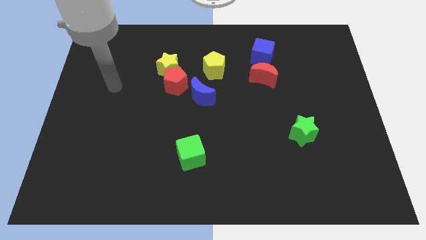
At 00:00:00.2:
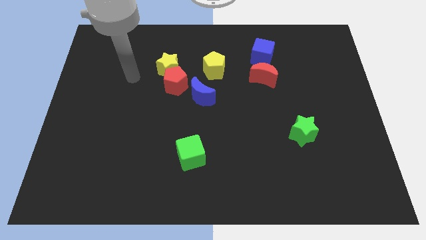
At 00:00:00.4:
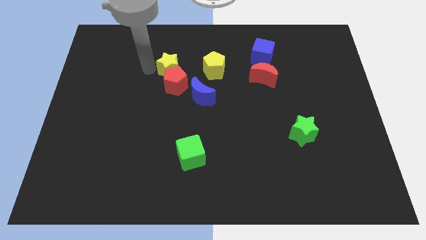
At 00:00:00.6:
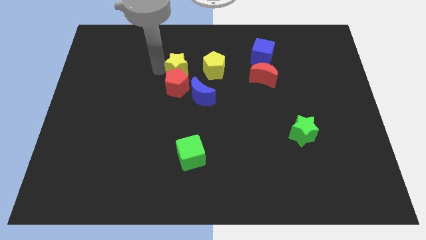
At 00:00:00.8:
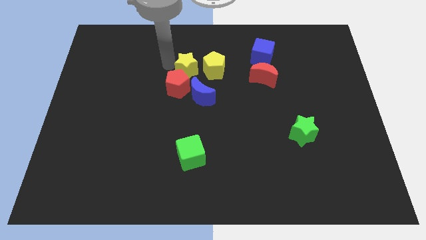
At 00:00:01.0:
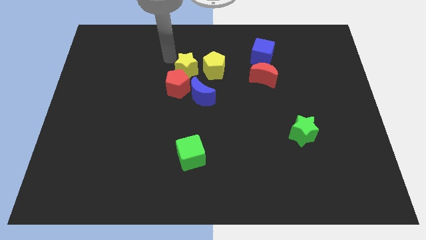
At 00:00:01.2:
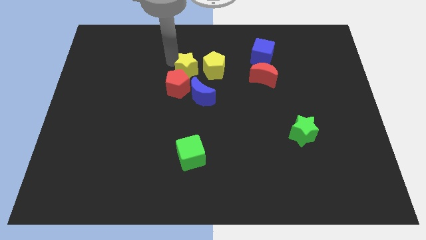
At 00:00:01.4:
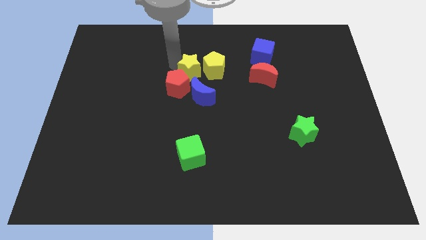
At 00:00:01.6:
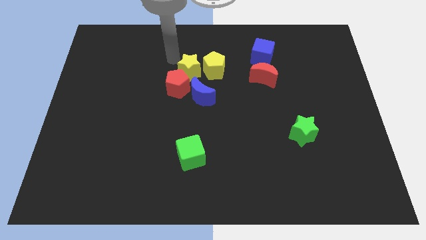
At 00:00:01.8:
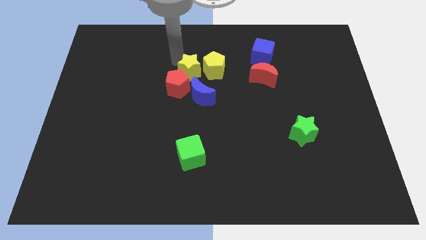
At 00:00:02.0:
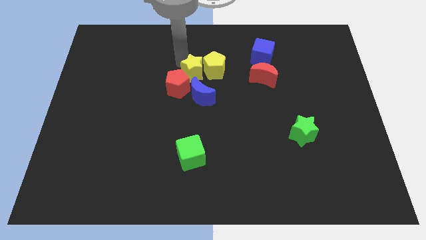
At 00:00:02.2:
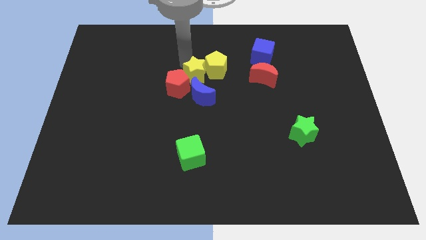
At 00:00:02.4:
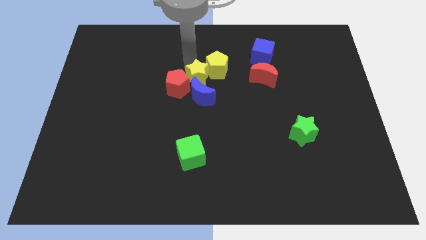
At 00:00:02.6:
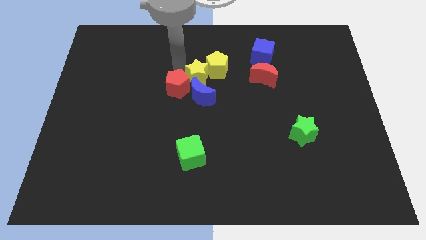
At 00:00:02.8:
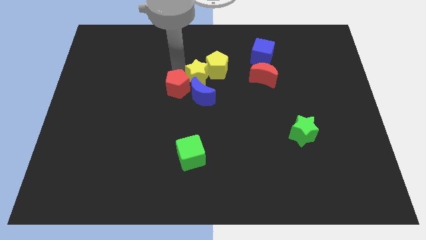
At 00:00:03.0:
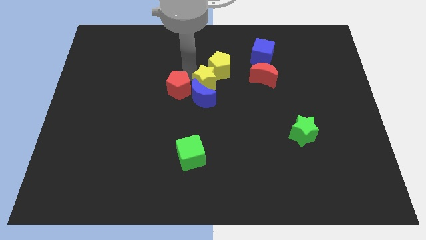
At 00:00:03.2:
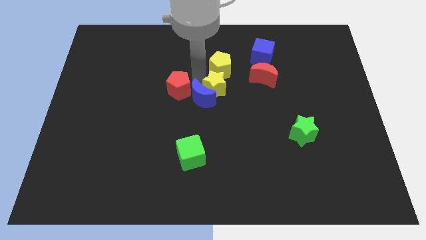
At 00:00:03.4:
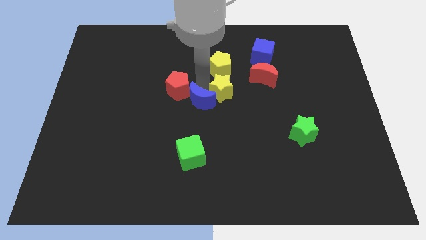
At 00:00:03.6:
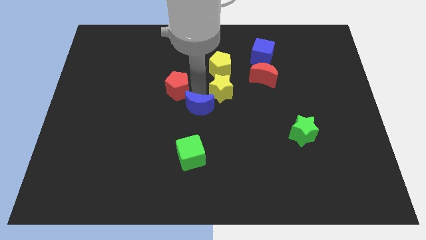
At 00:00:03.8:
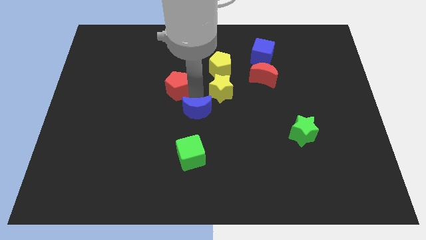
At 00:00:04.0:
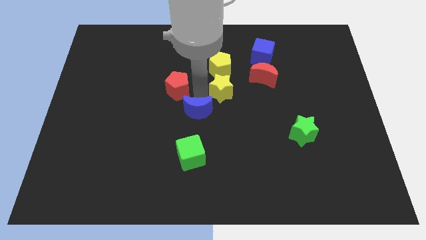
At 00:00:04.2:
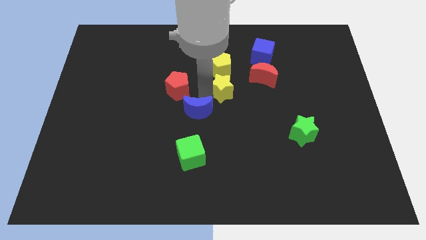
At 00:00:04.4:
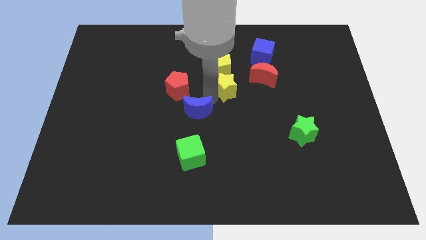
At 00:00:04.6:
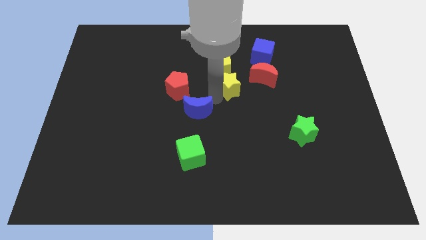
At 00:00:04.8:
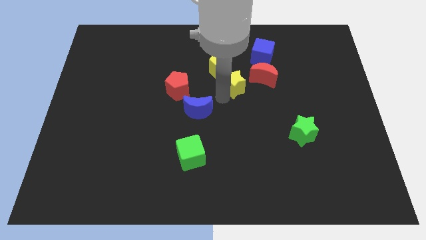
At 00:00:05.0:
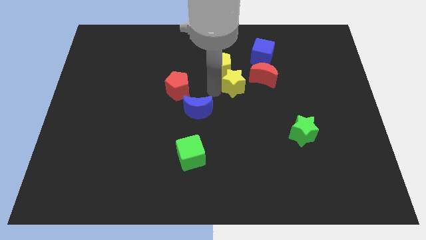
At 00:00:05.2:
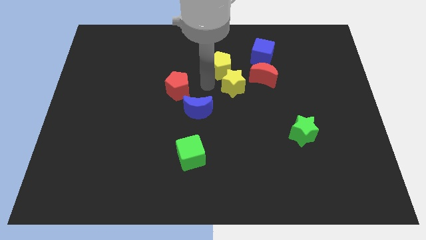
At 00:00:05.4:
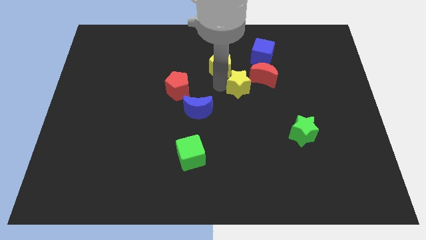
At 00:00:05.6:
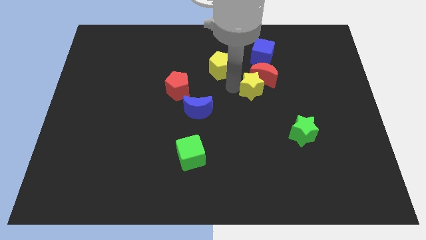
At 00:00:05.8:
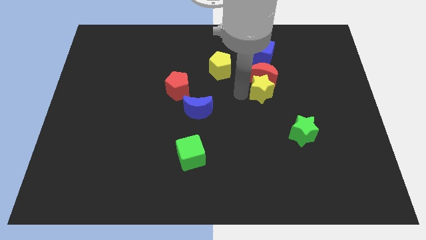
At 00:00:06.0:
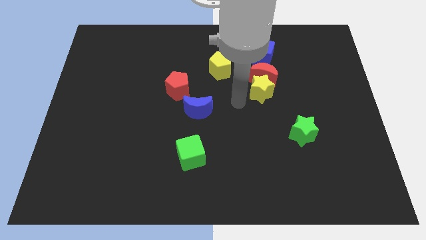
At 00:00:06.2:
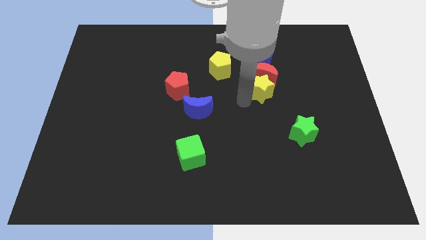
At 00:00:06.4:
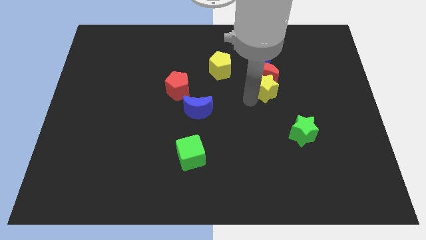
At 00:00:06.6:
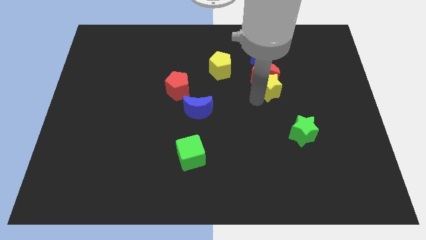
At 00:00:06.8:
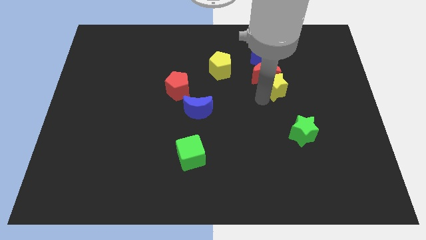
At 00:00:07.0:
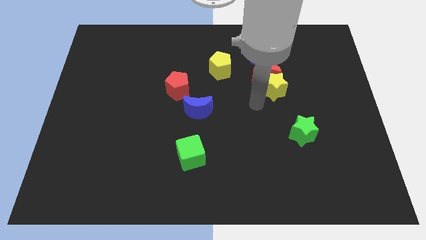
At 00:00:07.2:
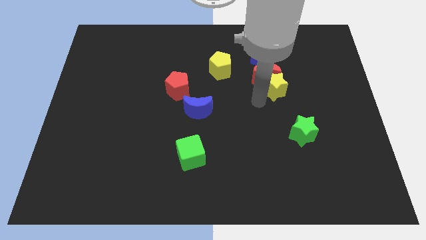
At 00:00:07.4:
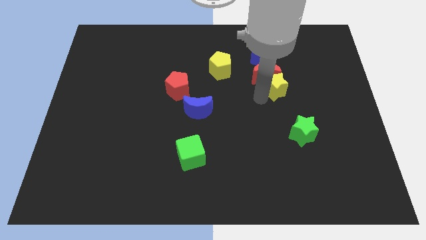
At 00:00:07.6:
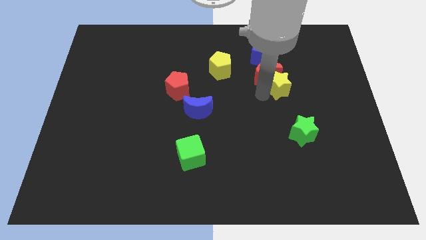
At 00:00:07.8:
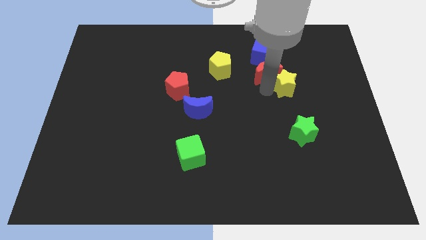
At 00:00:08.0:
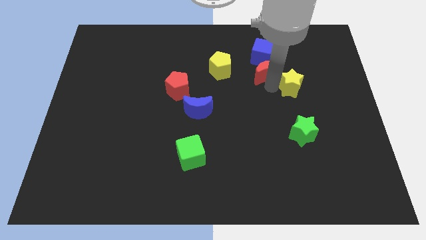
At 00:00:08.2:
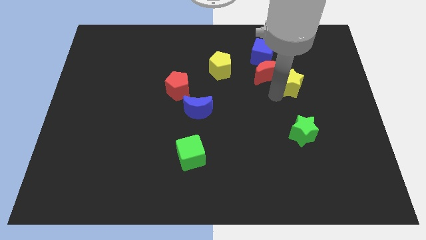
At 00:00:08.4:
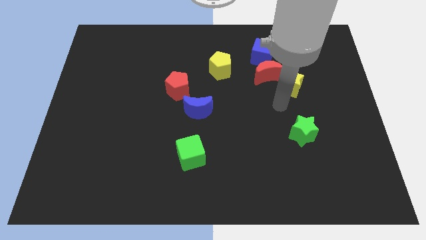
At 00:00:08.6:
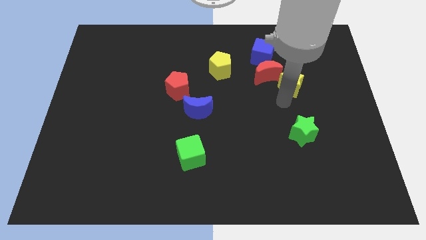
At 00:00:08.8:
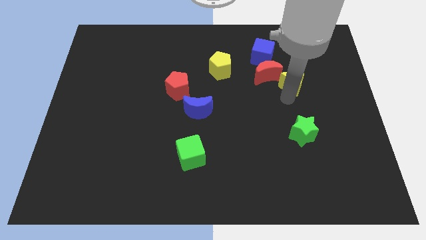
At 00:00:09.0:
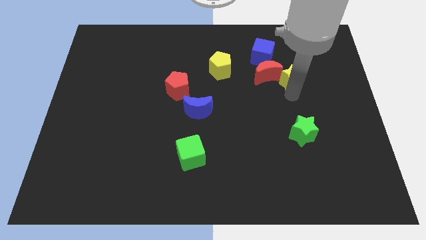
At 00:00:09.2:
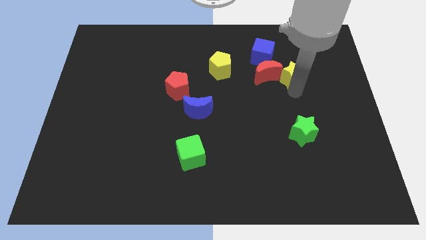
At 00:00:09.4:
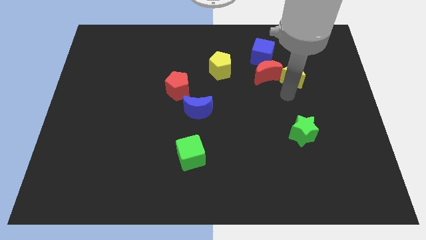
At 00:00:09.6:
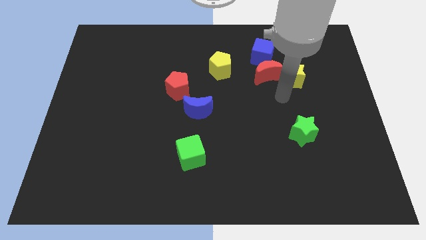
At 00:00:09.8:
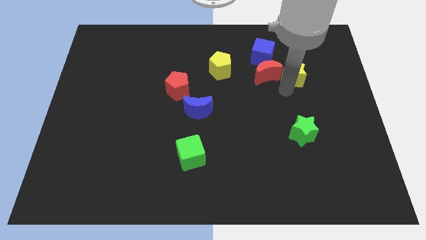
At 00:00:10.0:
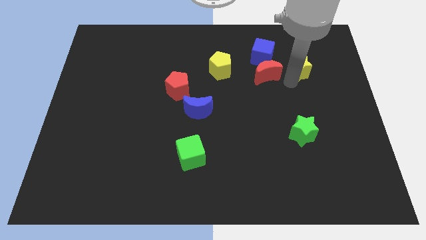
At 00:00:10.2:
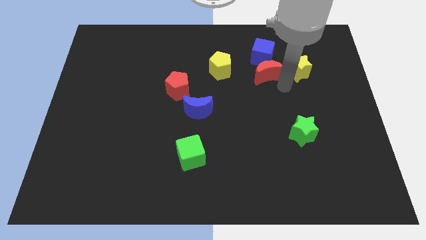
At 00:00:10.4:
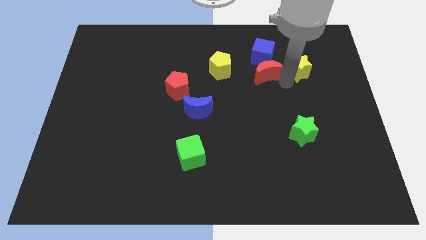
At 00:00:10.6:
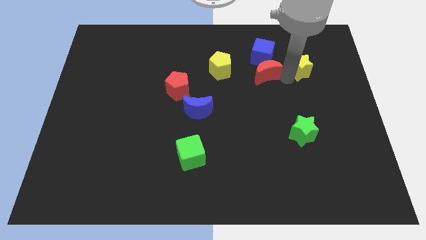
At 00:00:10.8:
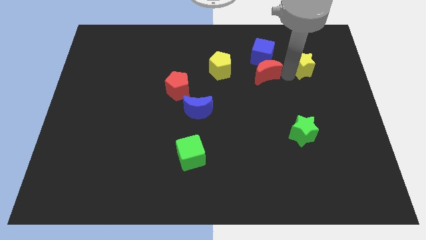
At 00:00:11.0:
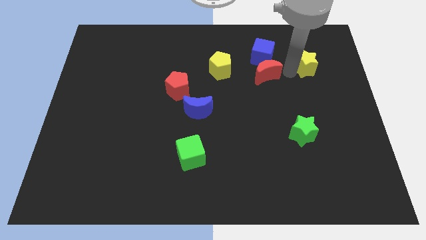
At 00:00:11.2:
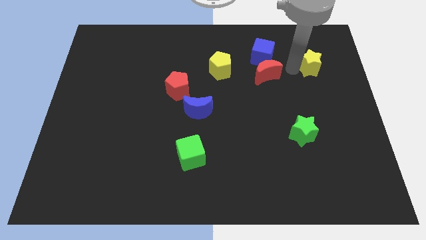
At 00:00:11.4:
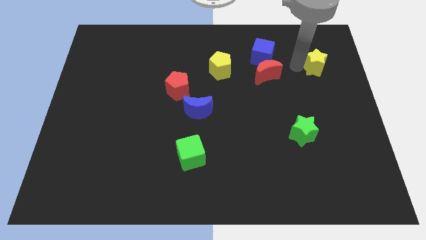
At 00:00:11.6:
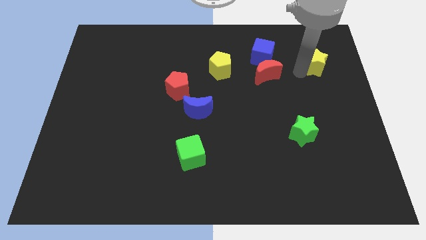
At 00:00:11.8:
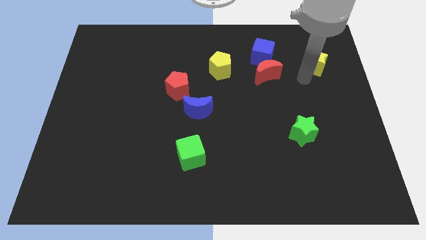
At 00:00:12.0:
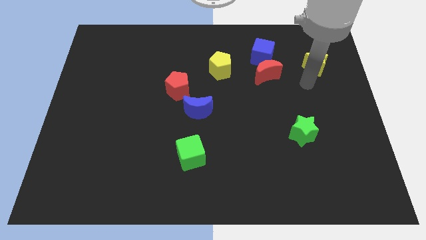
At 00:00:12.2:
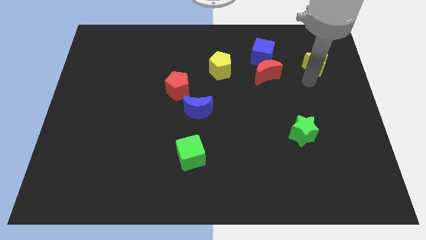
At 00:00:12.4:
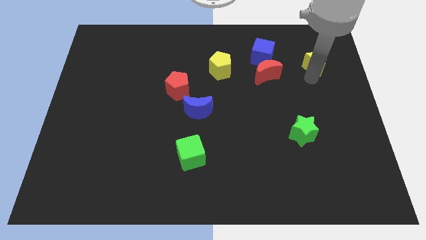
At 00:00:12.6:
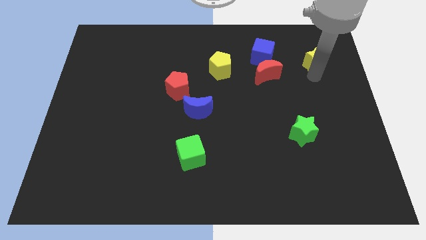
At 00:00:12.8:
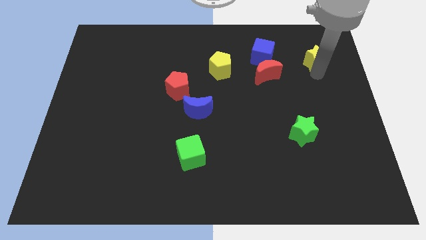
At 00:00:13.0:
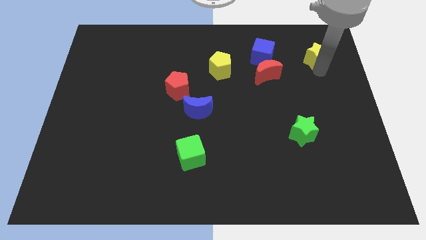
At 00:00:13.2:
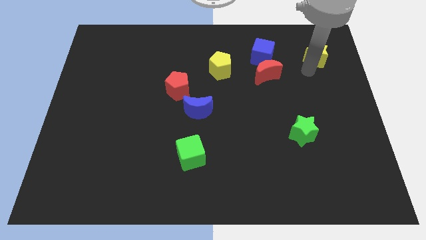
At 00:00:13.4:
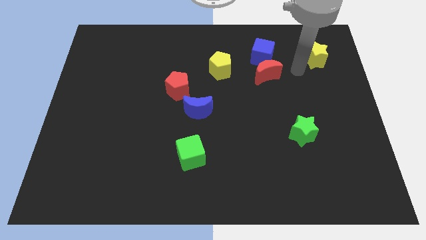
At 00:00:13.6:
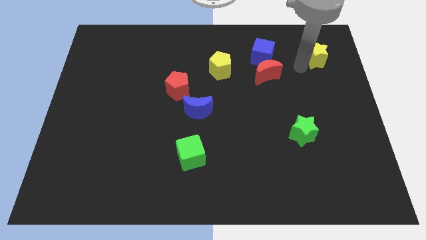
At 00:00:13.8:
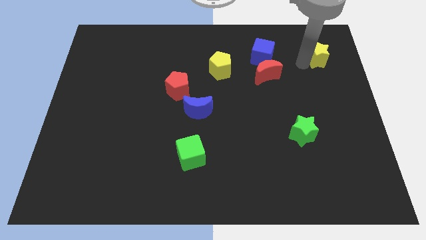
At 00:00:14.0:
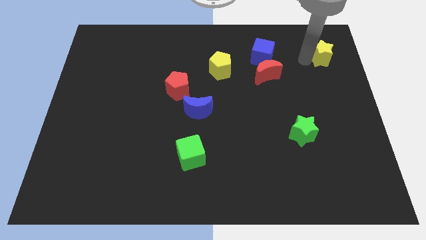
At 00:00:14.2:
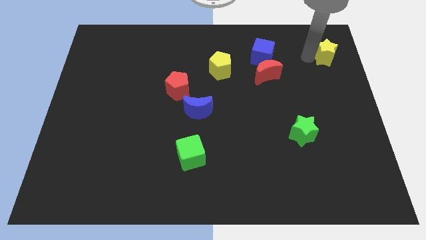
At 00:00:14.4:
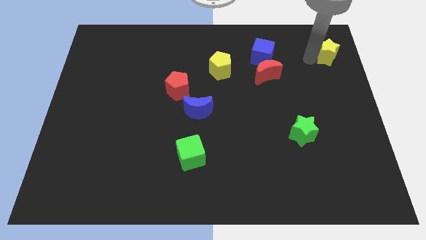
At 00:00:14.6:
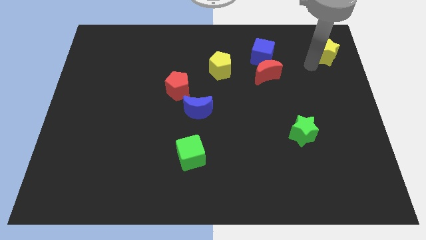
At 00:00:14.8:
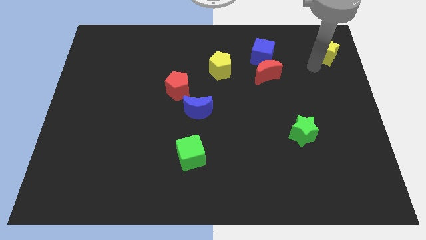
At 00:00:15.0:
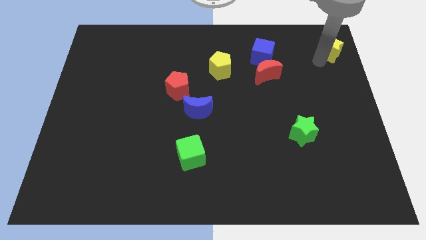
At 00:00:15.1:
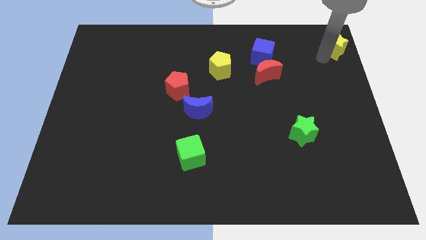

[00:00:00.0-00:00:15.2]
put the yellow star to the top right of the board
